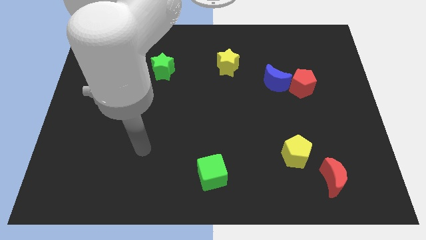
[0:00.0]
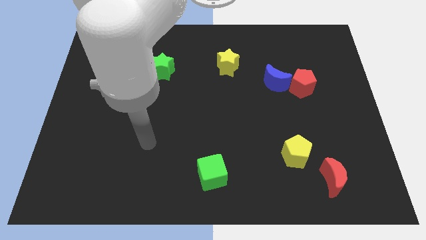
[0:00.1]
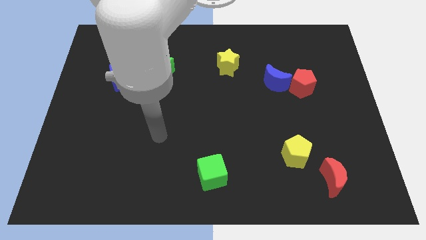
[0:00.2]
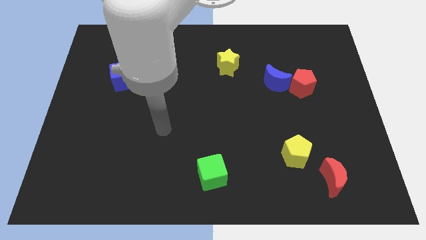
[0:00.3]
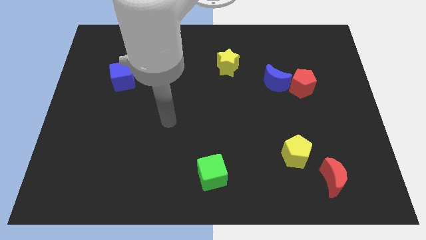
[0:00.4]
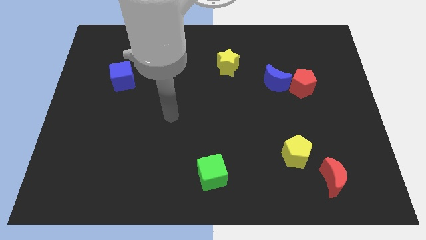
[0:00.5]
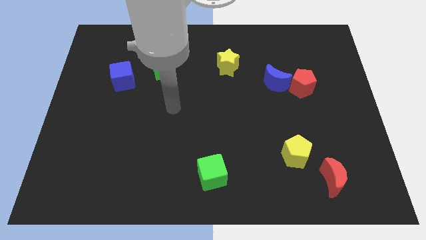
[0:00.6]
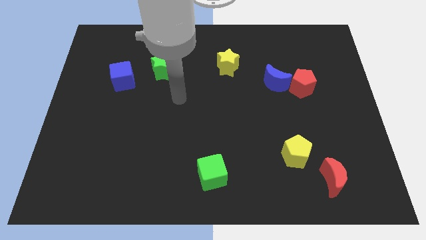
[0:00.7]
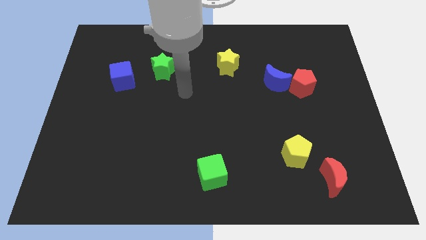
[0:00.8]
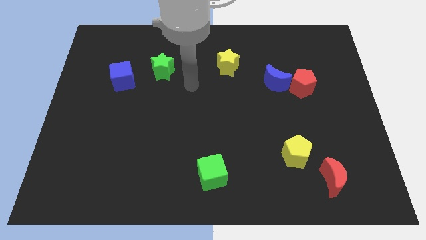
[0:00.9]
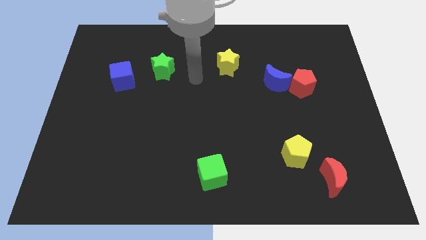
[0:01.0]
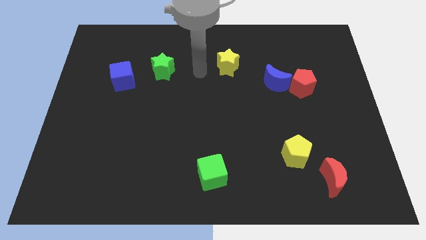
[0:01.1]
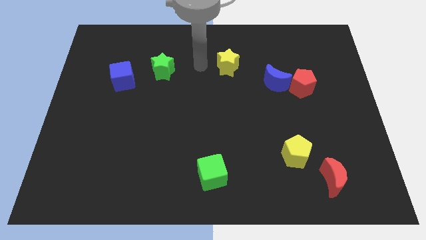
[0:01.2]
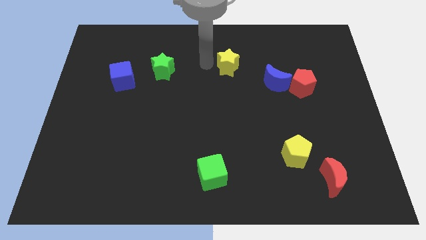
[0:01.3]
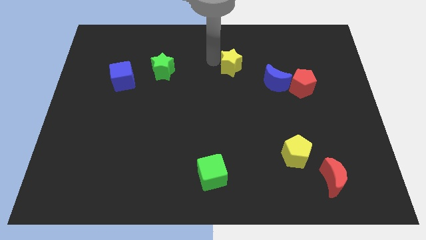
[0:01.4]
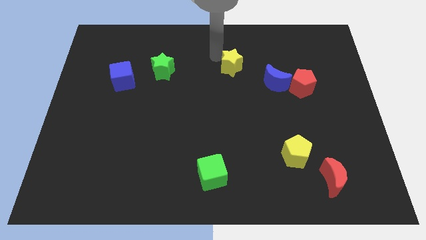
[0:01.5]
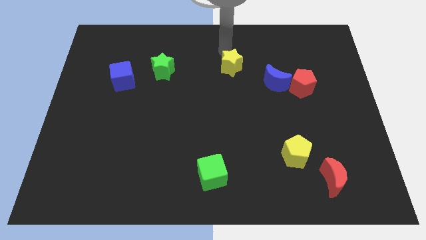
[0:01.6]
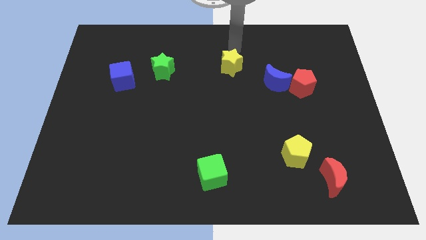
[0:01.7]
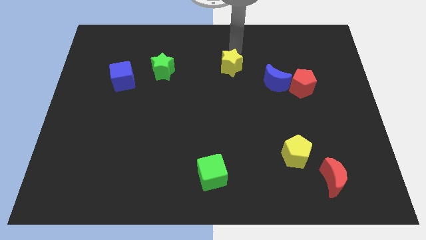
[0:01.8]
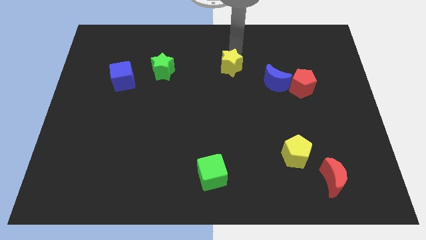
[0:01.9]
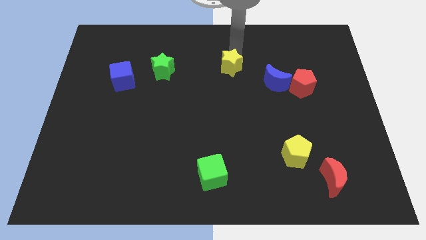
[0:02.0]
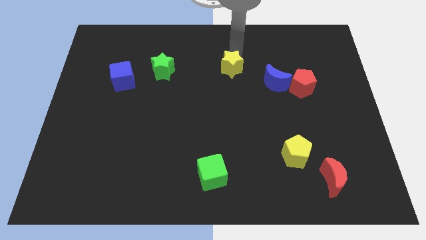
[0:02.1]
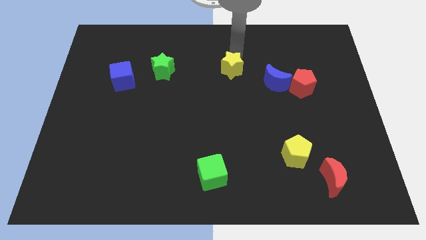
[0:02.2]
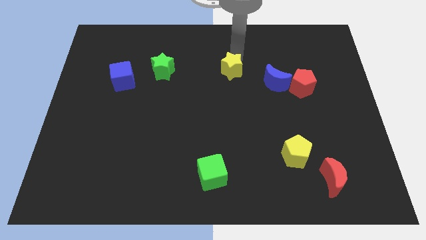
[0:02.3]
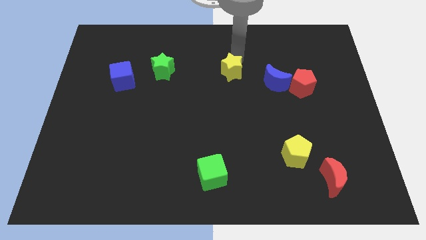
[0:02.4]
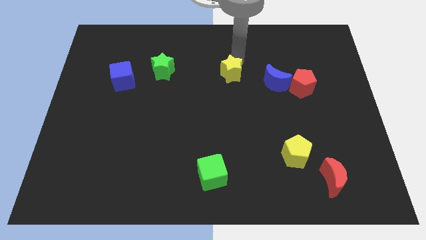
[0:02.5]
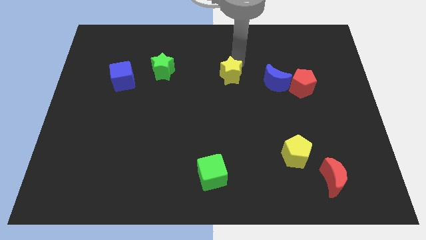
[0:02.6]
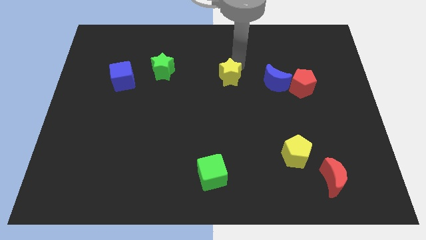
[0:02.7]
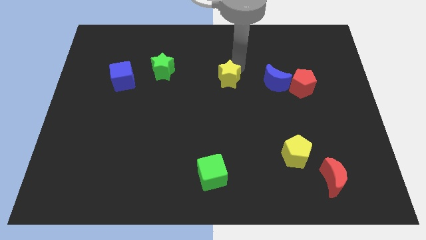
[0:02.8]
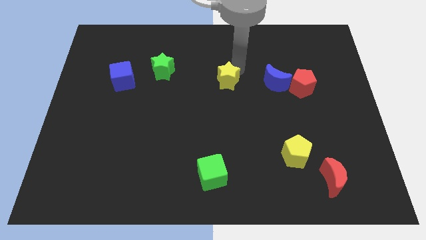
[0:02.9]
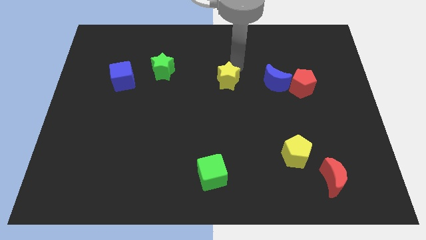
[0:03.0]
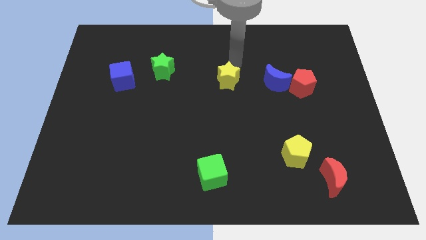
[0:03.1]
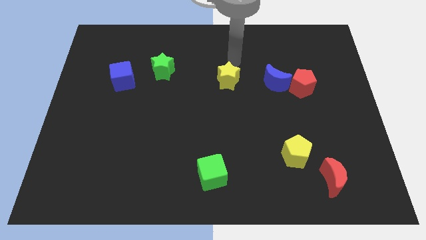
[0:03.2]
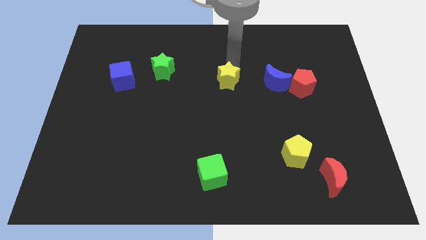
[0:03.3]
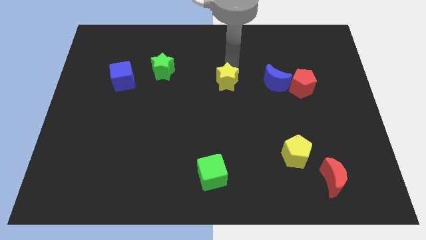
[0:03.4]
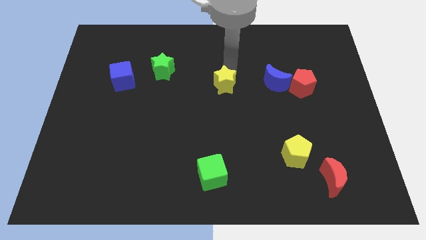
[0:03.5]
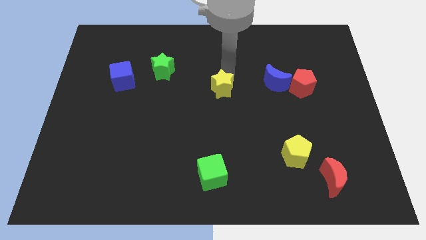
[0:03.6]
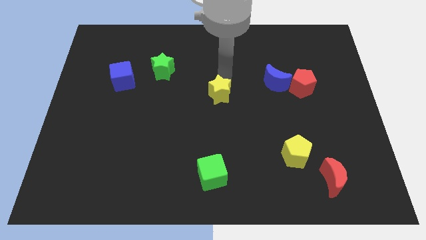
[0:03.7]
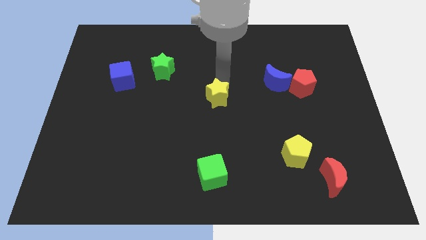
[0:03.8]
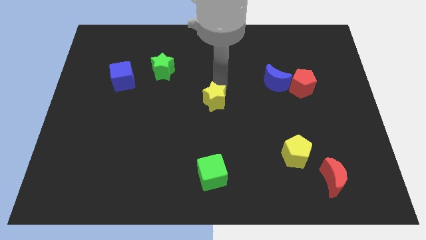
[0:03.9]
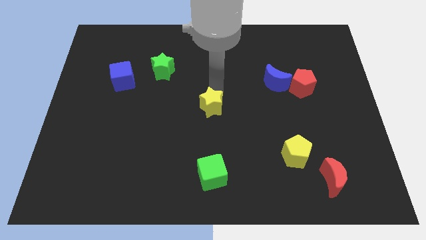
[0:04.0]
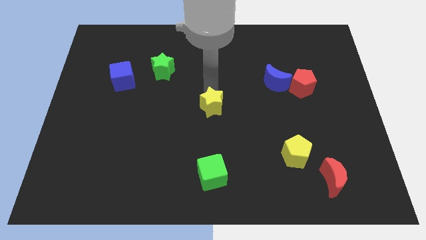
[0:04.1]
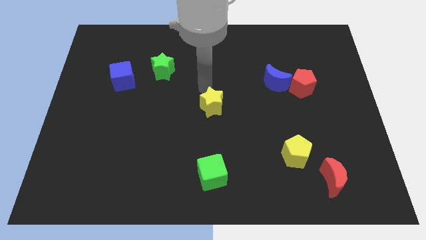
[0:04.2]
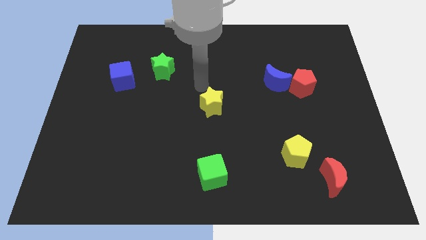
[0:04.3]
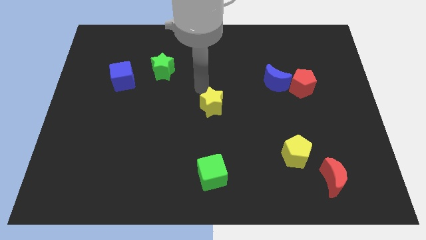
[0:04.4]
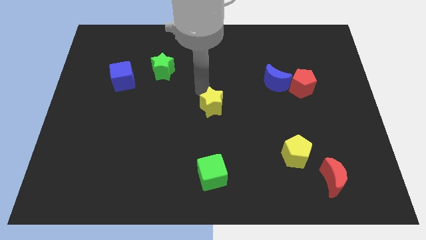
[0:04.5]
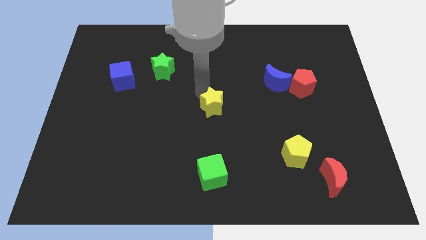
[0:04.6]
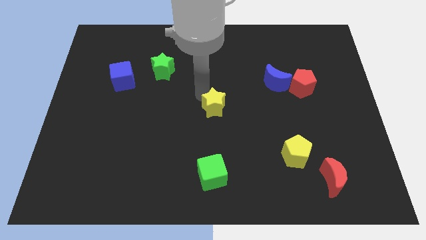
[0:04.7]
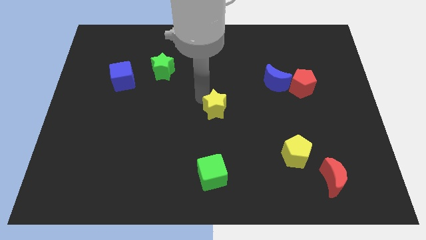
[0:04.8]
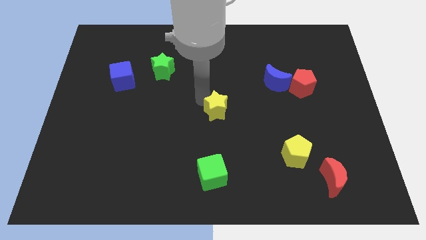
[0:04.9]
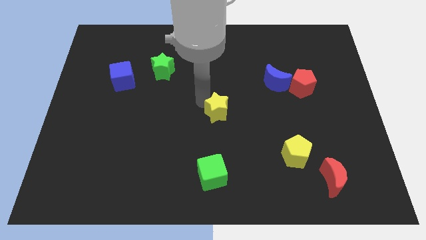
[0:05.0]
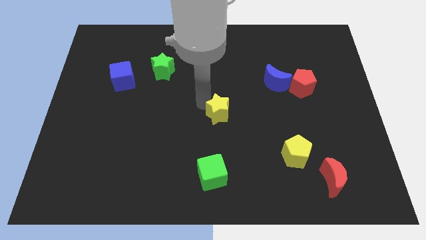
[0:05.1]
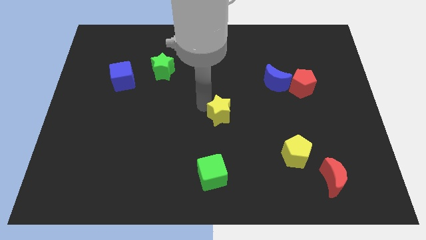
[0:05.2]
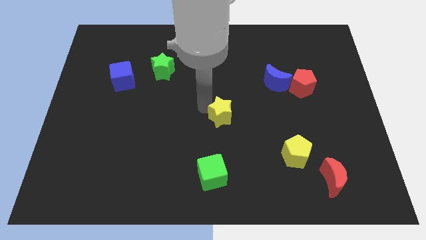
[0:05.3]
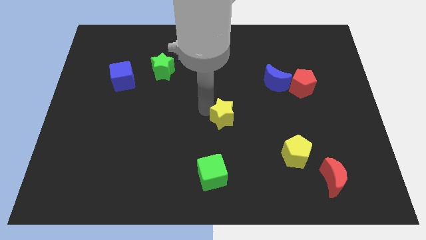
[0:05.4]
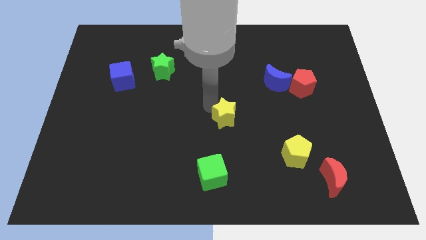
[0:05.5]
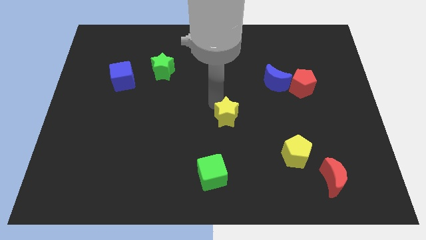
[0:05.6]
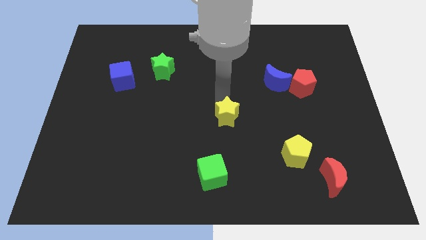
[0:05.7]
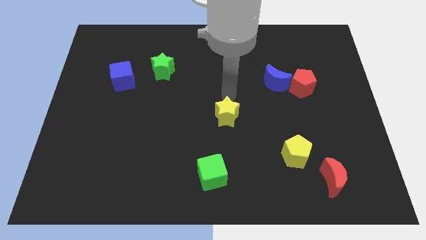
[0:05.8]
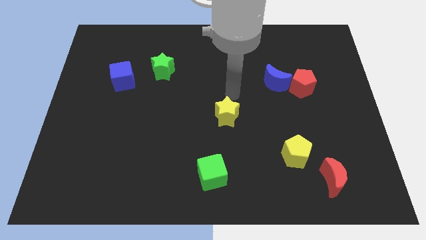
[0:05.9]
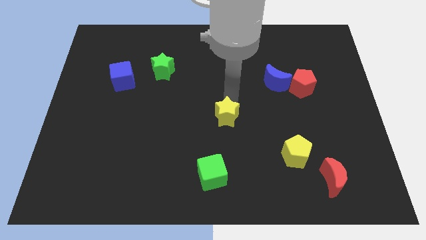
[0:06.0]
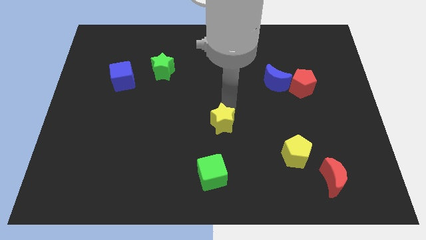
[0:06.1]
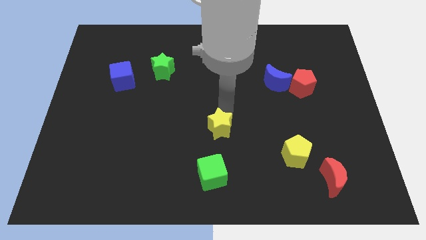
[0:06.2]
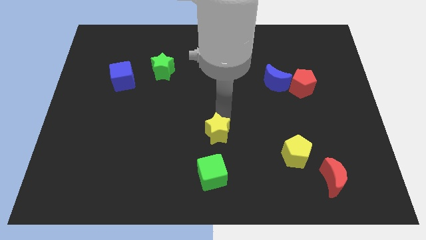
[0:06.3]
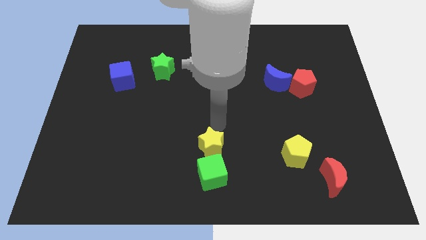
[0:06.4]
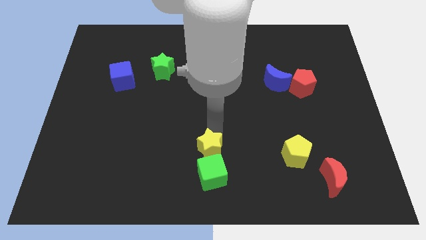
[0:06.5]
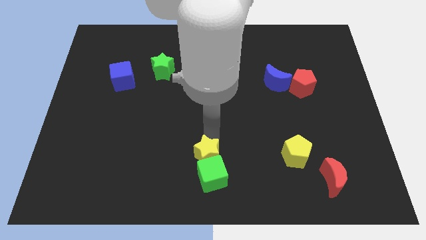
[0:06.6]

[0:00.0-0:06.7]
slide the yellow star close to the green cube

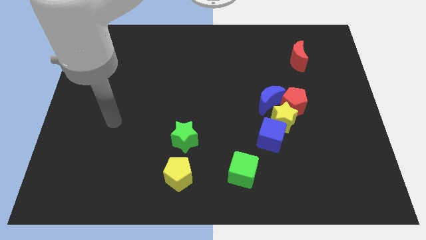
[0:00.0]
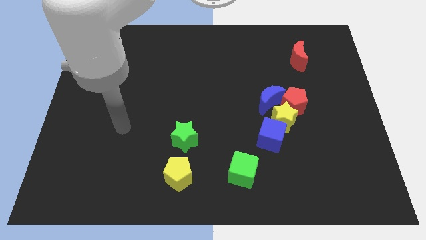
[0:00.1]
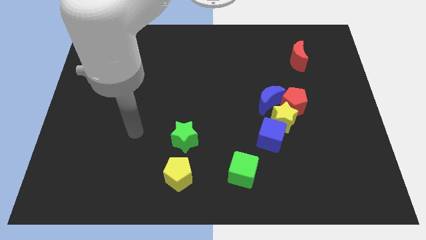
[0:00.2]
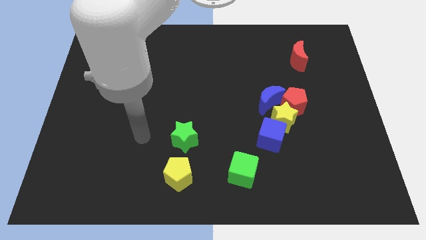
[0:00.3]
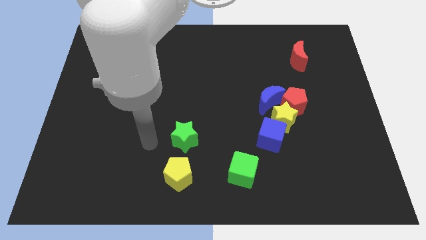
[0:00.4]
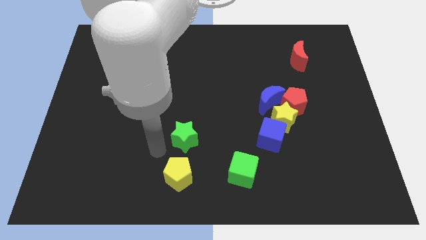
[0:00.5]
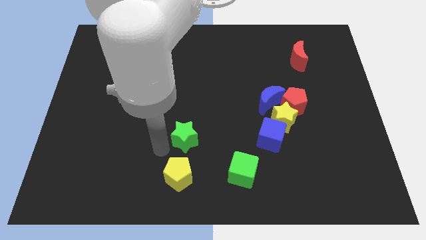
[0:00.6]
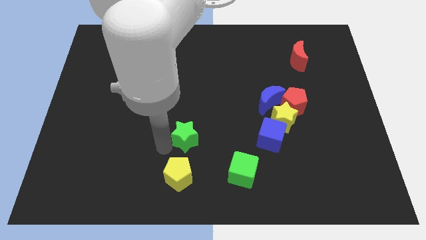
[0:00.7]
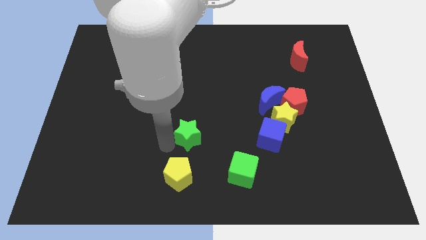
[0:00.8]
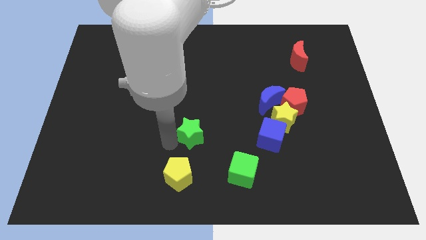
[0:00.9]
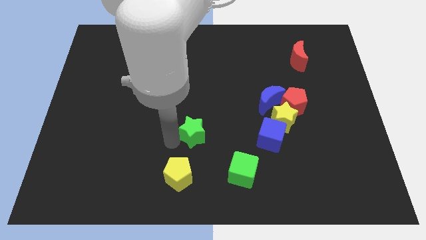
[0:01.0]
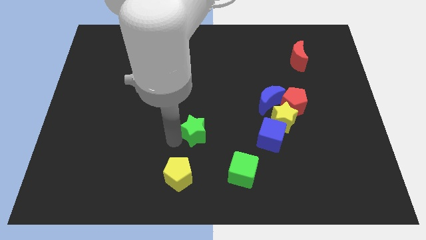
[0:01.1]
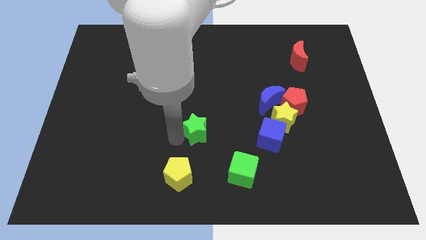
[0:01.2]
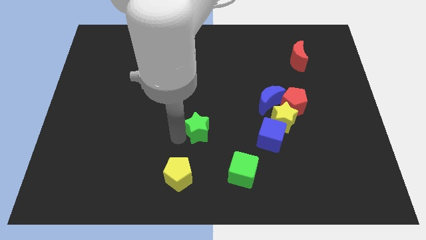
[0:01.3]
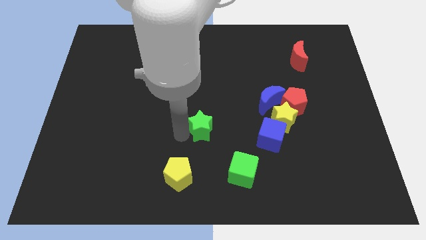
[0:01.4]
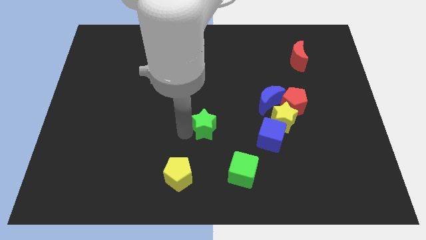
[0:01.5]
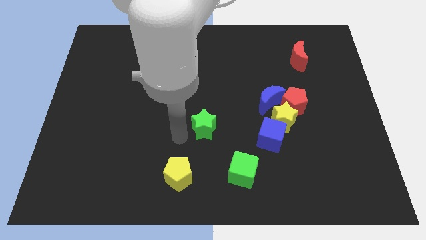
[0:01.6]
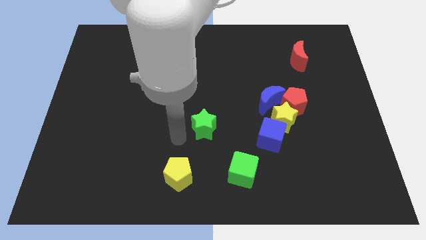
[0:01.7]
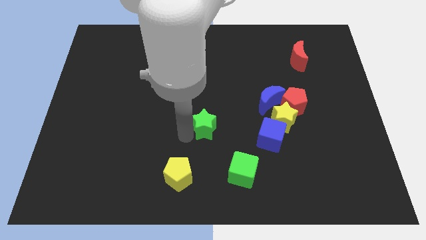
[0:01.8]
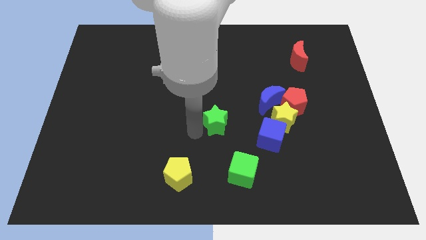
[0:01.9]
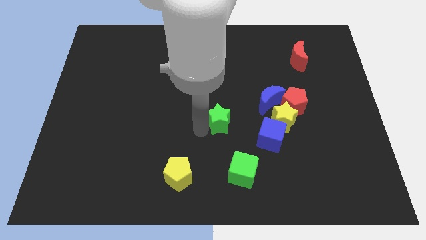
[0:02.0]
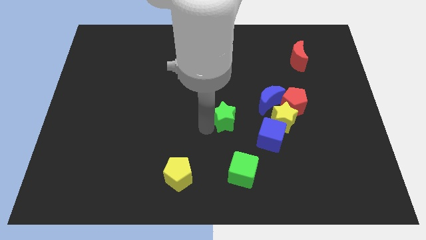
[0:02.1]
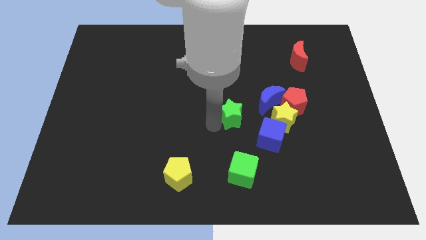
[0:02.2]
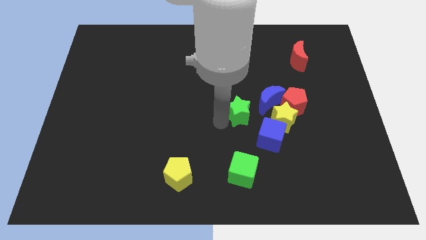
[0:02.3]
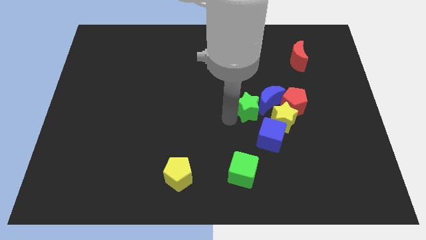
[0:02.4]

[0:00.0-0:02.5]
put the green star to the blue moon
